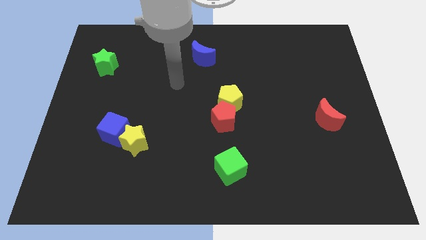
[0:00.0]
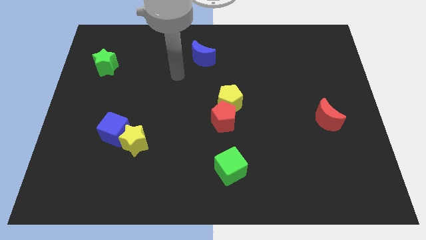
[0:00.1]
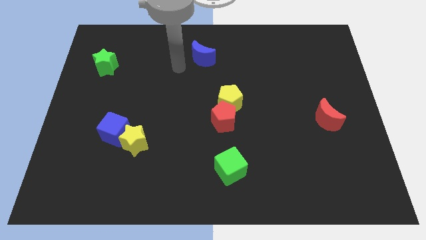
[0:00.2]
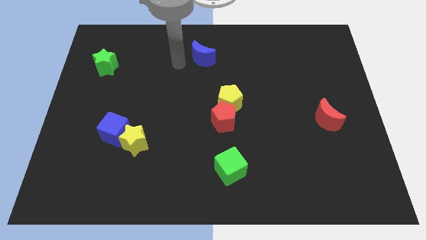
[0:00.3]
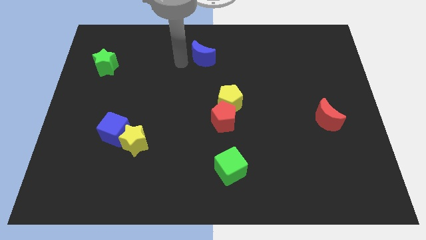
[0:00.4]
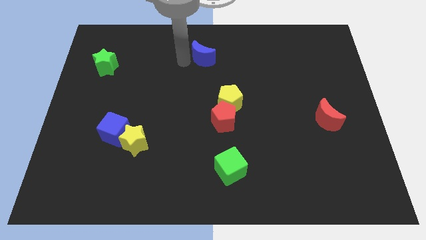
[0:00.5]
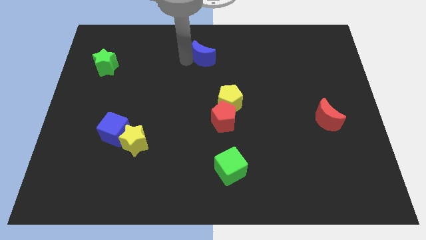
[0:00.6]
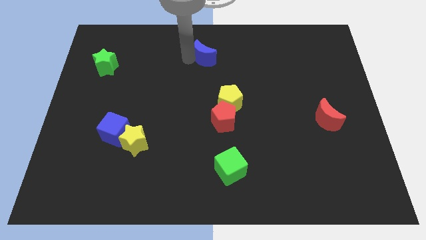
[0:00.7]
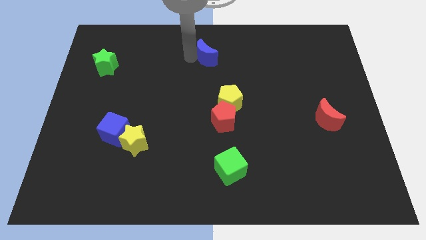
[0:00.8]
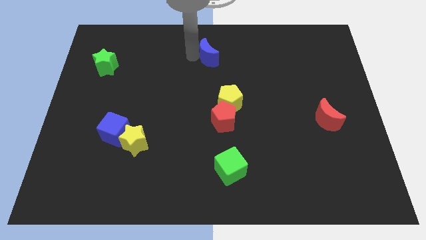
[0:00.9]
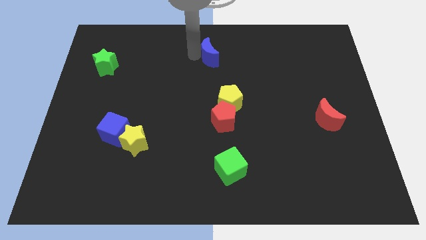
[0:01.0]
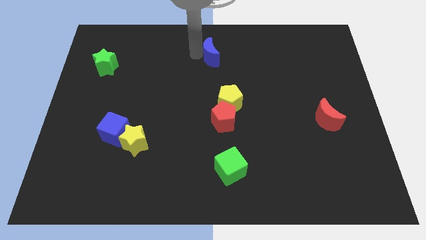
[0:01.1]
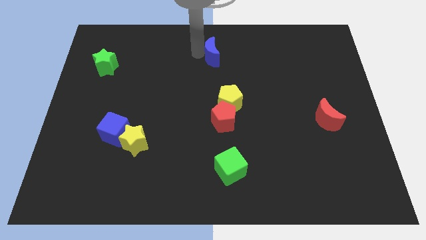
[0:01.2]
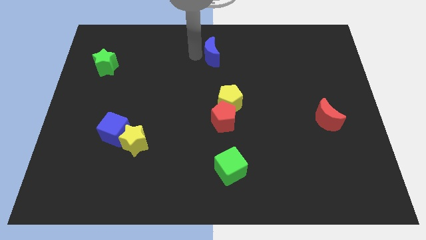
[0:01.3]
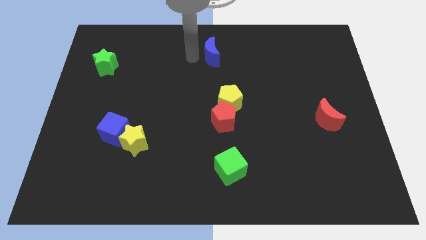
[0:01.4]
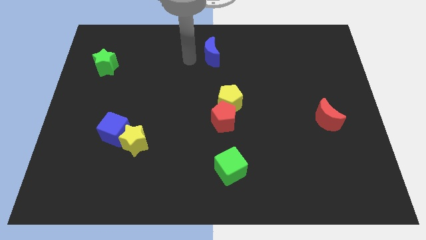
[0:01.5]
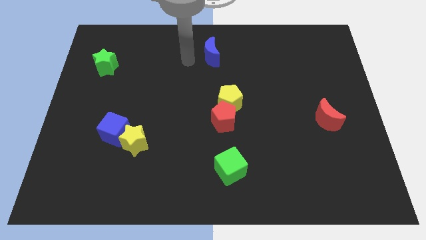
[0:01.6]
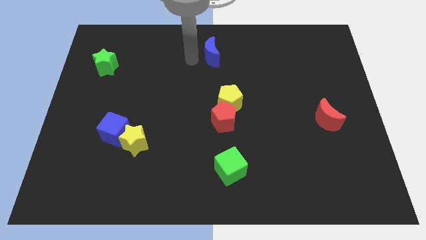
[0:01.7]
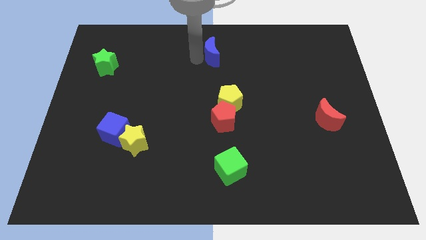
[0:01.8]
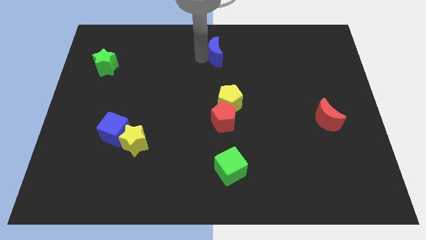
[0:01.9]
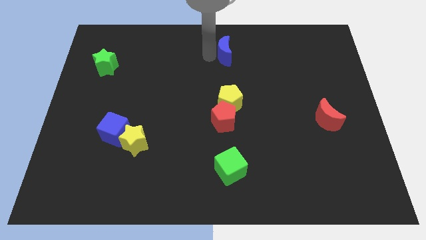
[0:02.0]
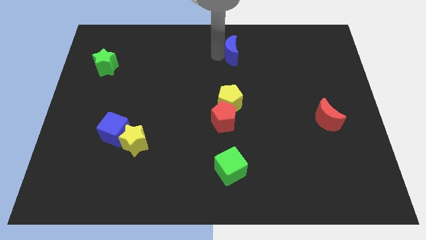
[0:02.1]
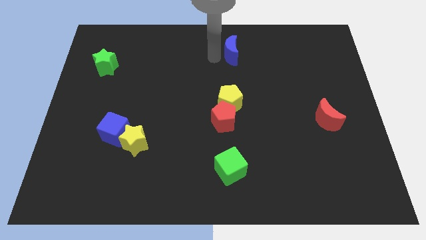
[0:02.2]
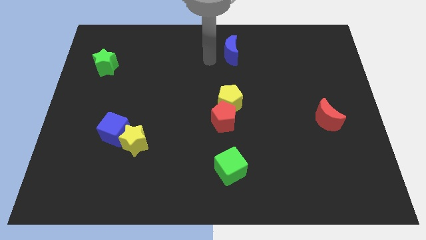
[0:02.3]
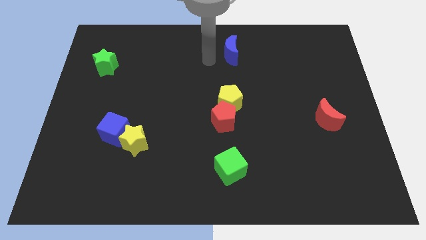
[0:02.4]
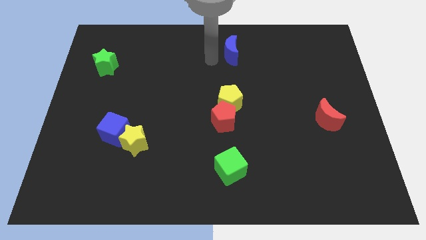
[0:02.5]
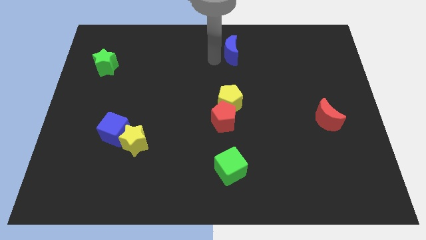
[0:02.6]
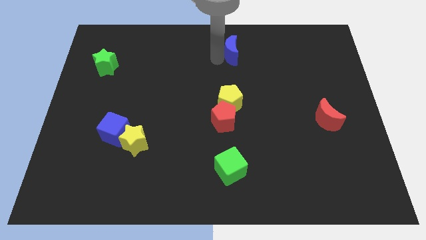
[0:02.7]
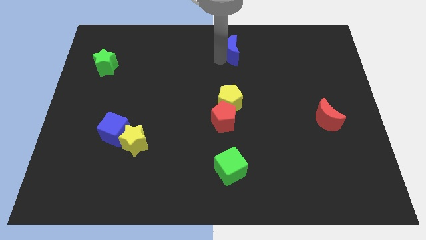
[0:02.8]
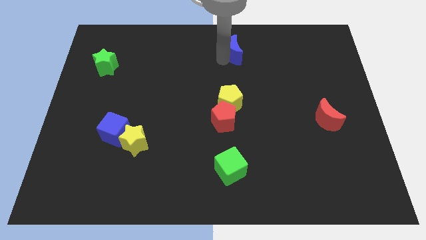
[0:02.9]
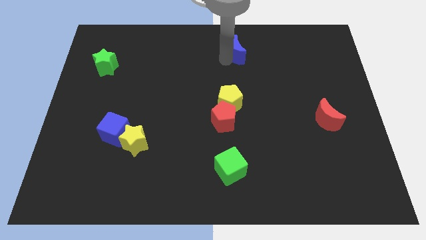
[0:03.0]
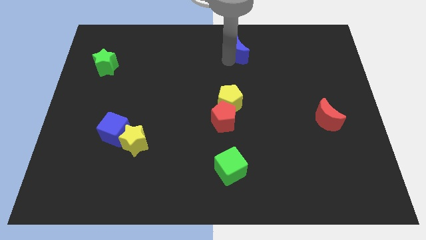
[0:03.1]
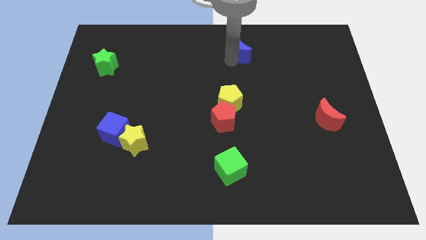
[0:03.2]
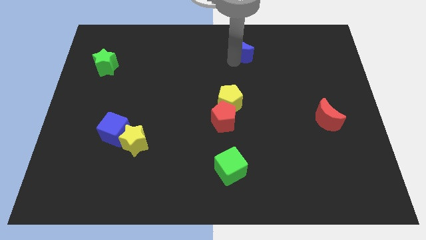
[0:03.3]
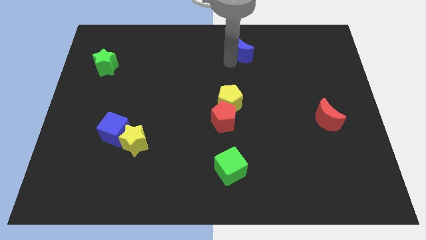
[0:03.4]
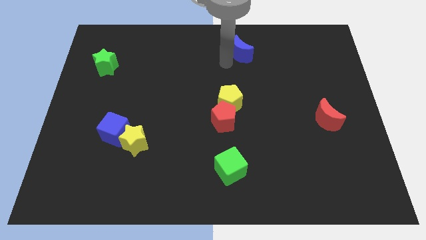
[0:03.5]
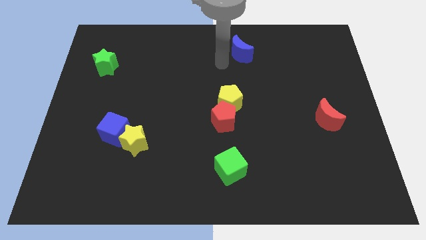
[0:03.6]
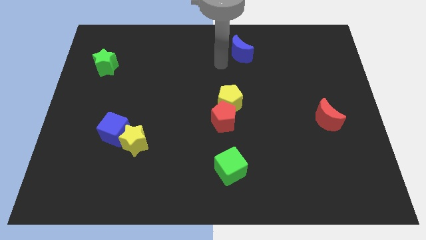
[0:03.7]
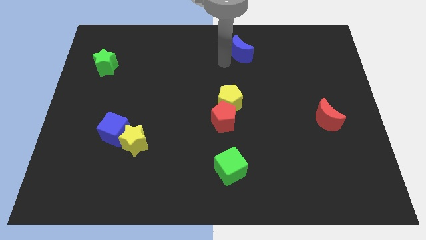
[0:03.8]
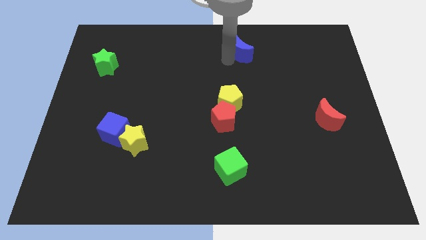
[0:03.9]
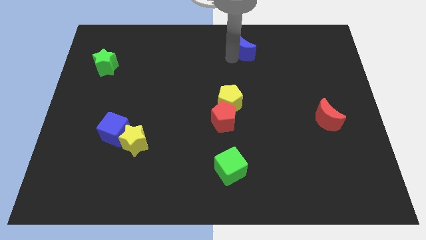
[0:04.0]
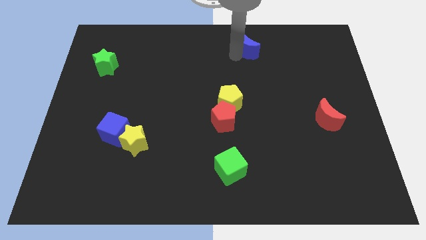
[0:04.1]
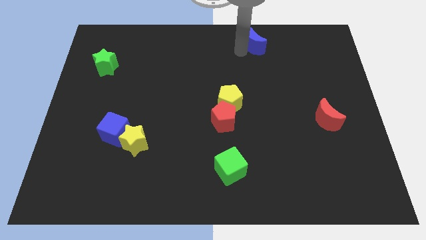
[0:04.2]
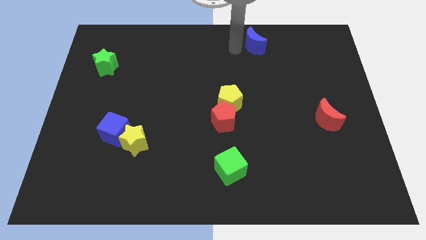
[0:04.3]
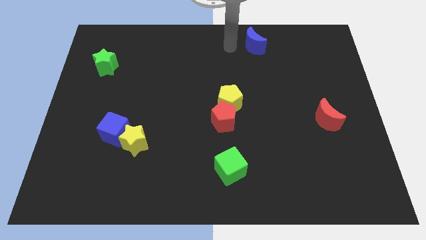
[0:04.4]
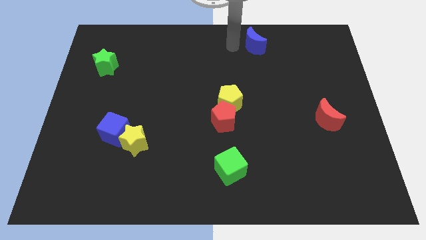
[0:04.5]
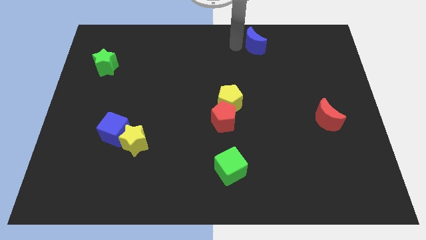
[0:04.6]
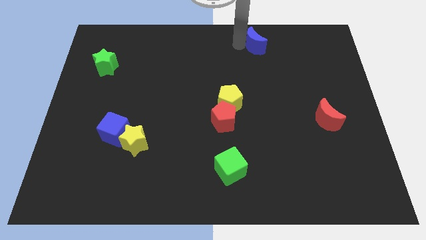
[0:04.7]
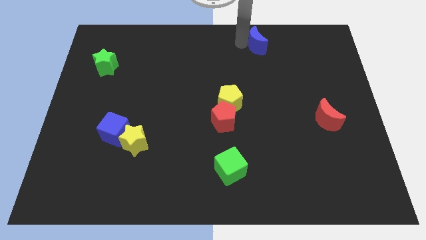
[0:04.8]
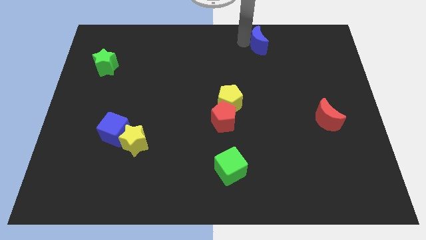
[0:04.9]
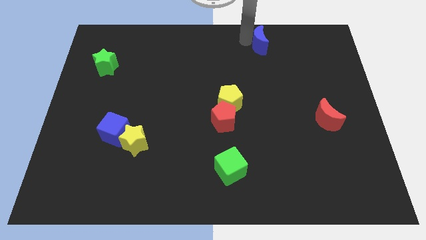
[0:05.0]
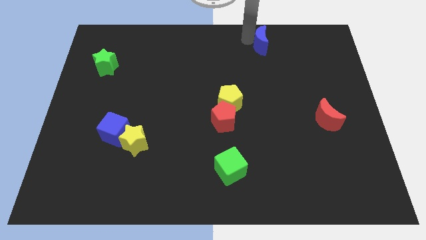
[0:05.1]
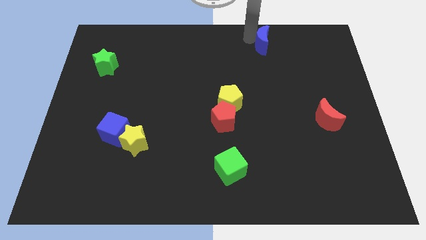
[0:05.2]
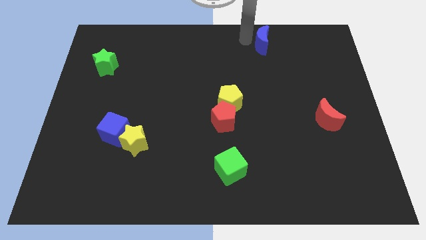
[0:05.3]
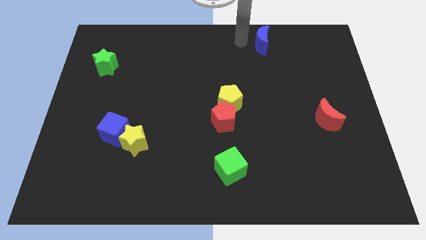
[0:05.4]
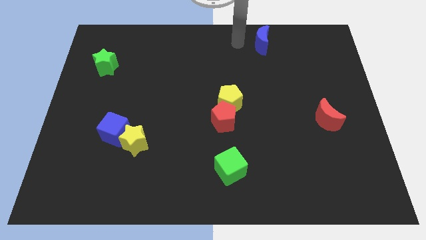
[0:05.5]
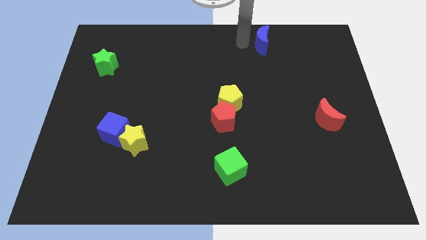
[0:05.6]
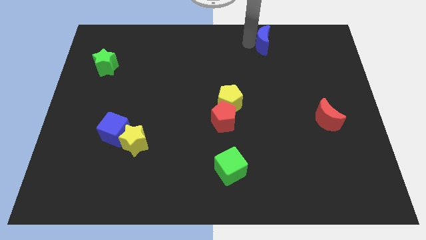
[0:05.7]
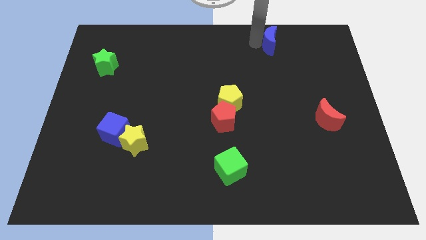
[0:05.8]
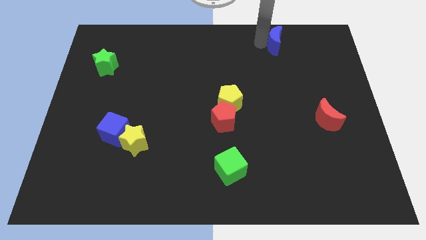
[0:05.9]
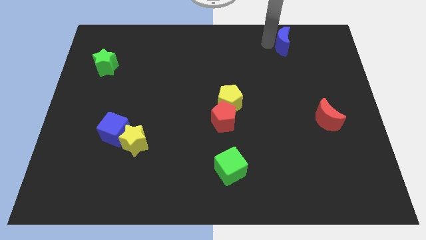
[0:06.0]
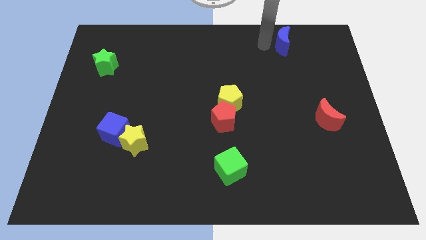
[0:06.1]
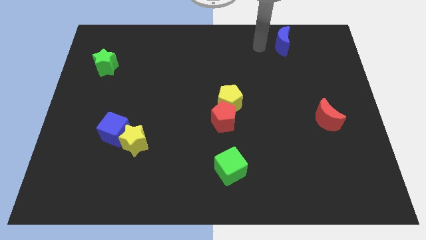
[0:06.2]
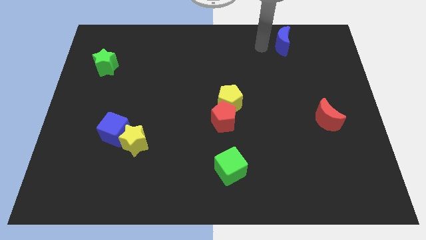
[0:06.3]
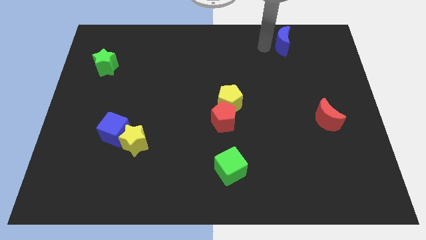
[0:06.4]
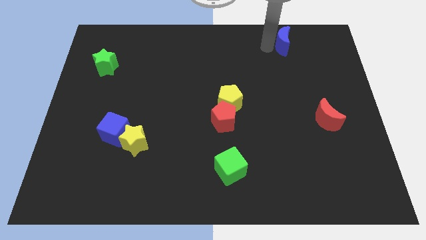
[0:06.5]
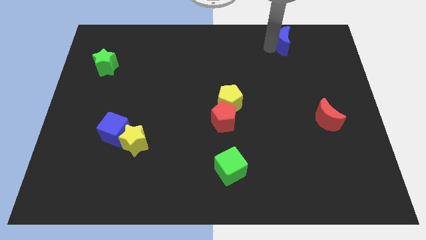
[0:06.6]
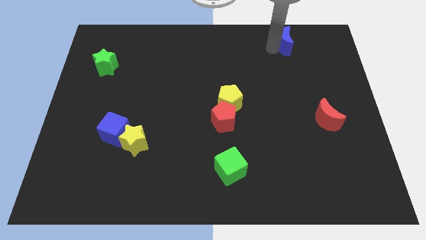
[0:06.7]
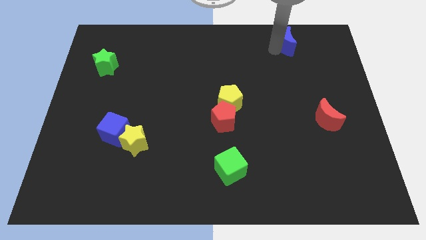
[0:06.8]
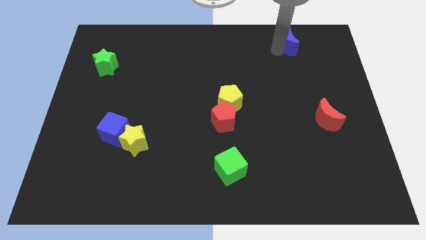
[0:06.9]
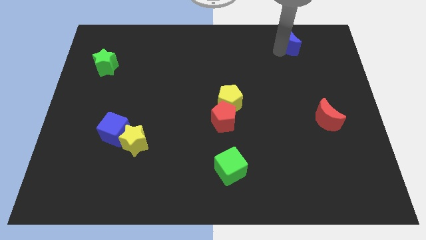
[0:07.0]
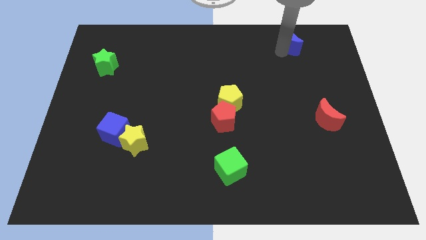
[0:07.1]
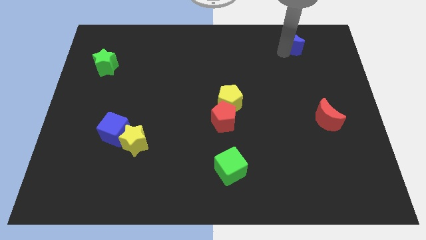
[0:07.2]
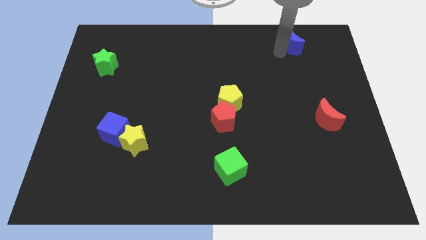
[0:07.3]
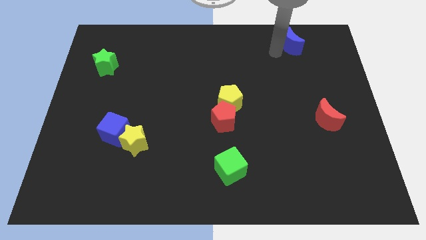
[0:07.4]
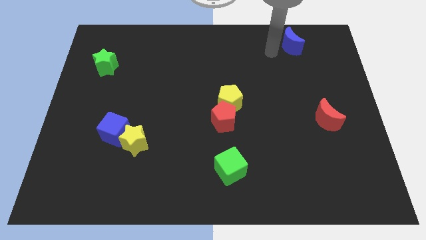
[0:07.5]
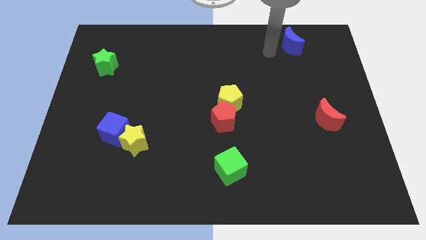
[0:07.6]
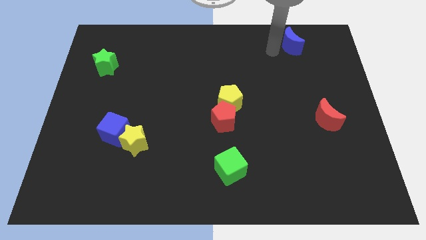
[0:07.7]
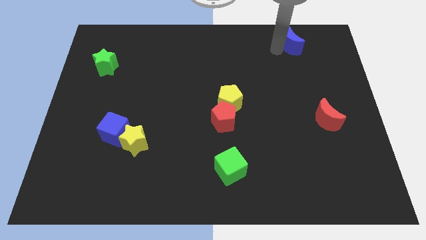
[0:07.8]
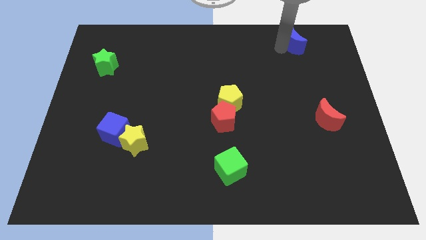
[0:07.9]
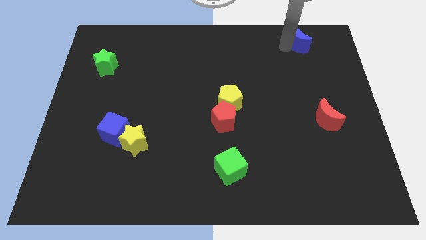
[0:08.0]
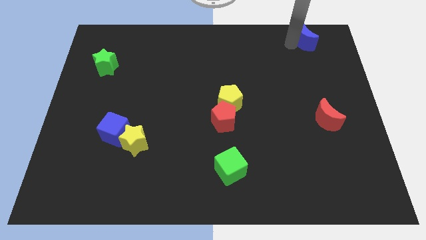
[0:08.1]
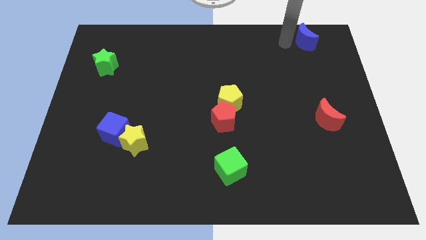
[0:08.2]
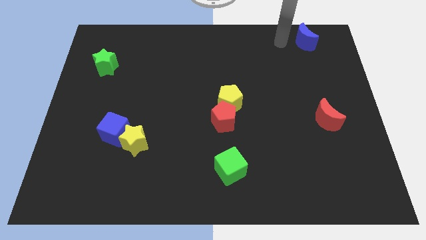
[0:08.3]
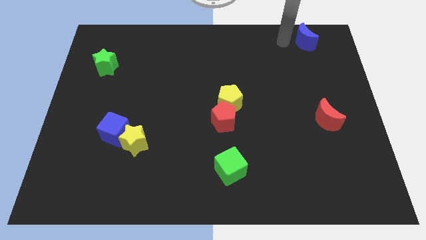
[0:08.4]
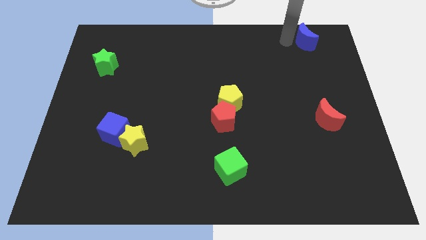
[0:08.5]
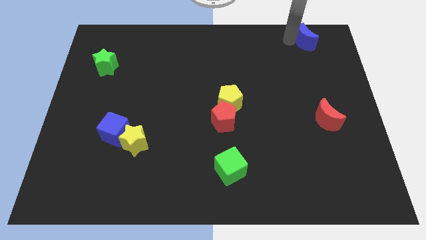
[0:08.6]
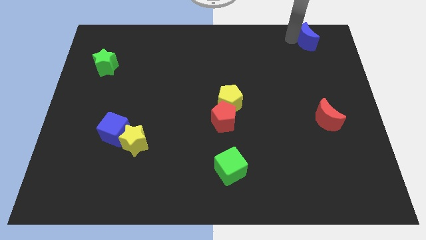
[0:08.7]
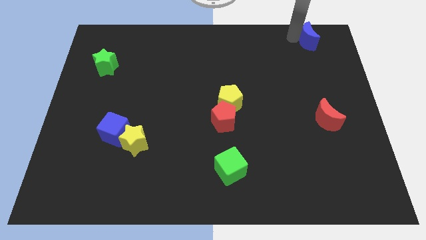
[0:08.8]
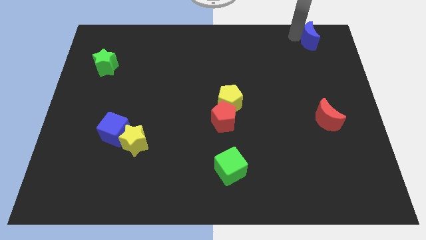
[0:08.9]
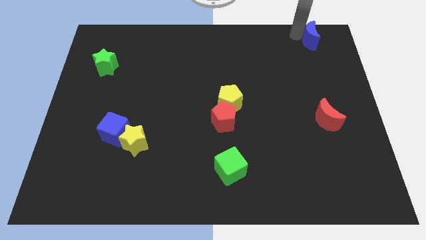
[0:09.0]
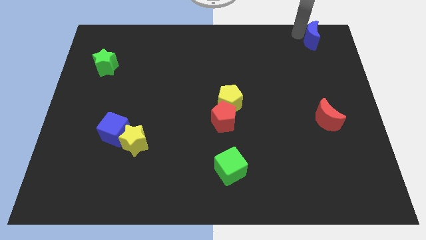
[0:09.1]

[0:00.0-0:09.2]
push the blue moon to the upper right corner
